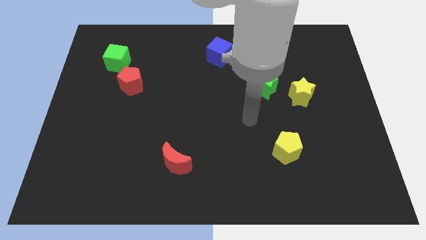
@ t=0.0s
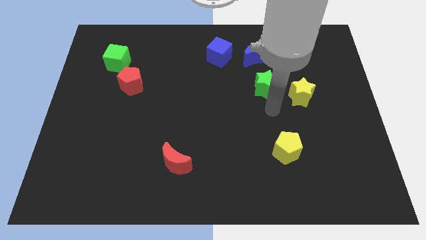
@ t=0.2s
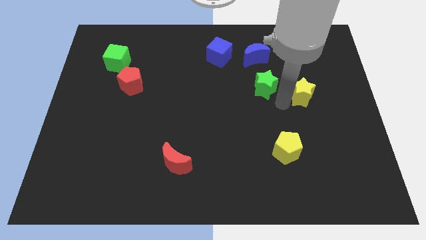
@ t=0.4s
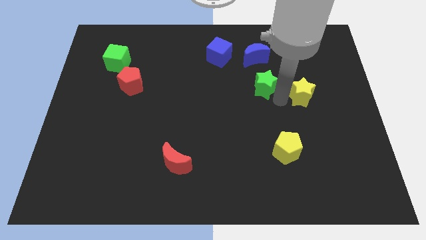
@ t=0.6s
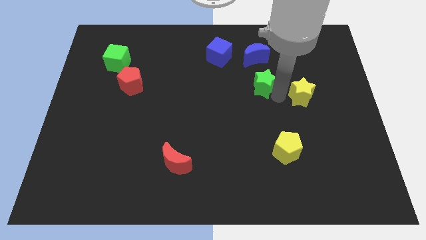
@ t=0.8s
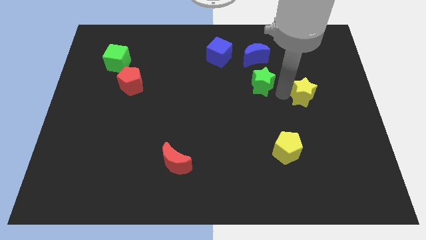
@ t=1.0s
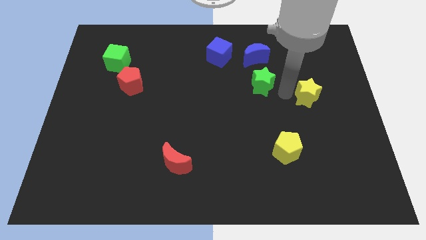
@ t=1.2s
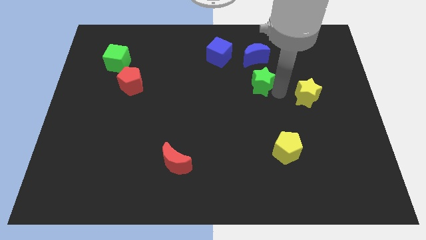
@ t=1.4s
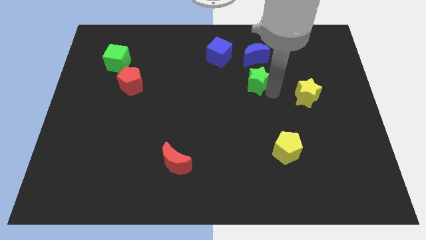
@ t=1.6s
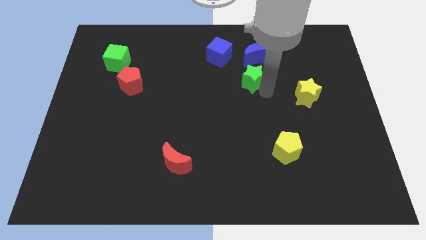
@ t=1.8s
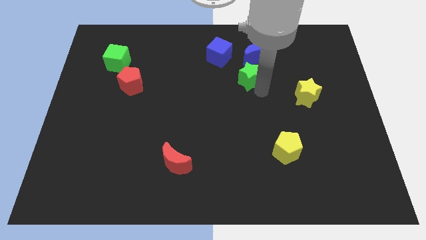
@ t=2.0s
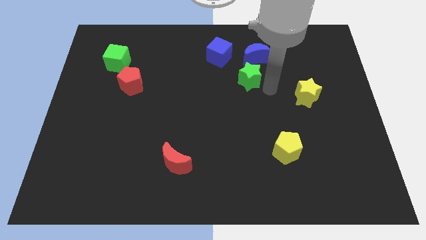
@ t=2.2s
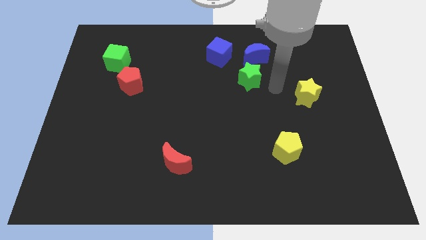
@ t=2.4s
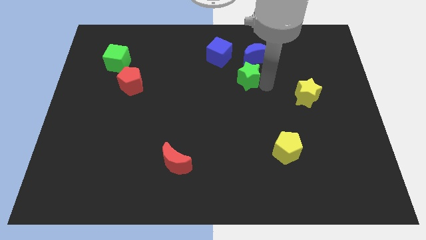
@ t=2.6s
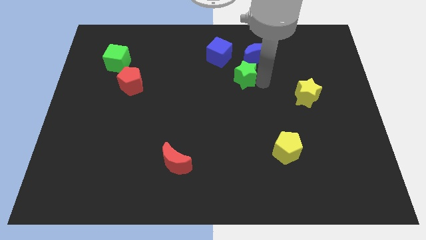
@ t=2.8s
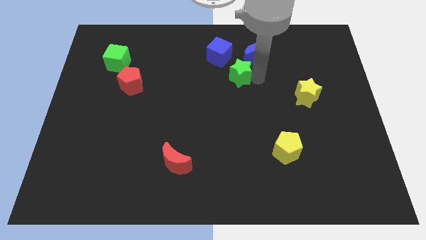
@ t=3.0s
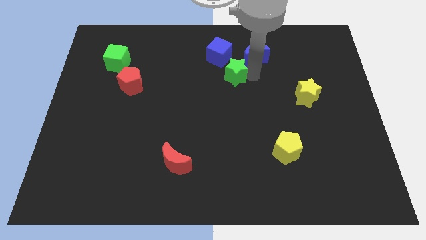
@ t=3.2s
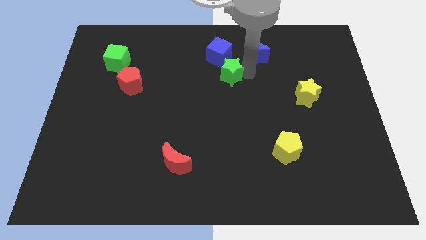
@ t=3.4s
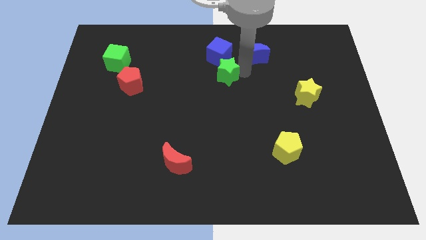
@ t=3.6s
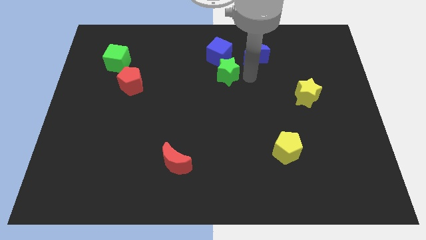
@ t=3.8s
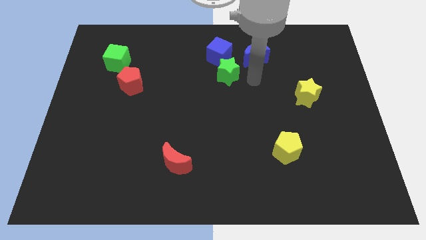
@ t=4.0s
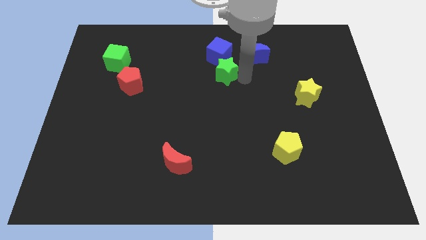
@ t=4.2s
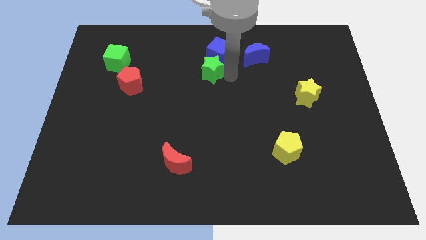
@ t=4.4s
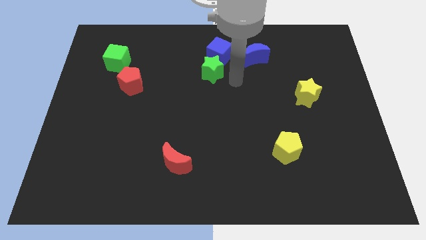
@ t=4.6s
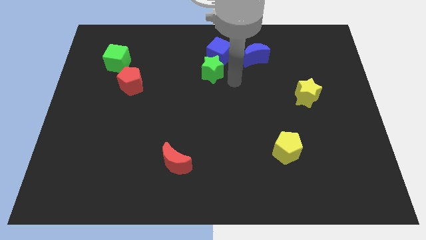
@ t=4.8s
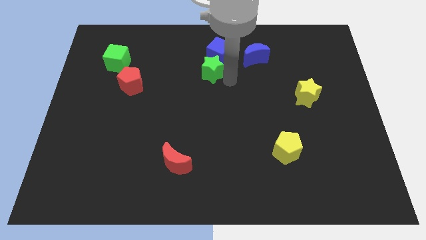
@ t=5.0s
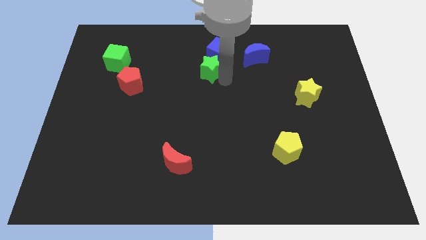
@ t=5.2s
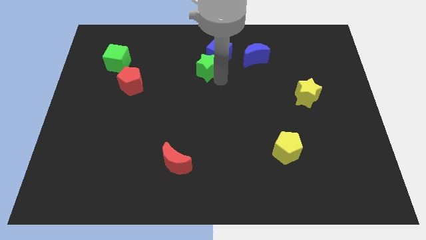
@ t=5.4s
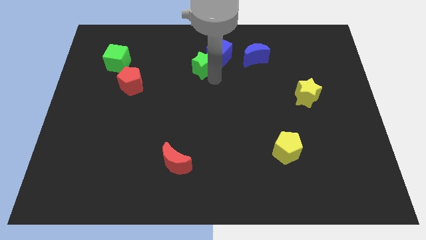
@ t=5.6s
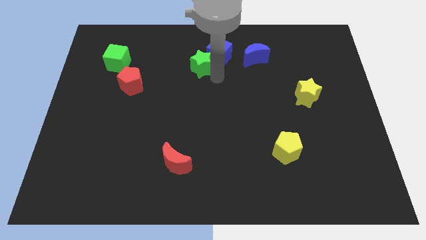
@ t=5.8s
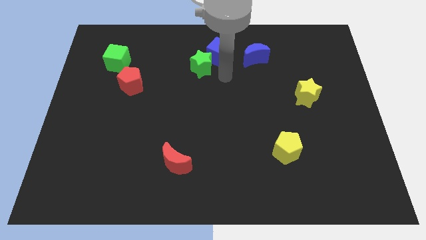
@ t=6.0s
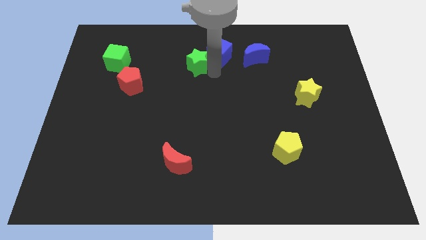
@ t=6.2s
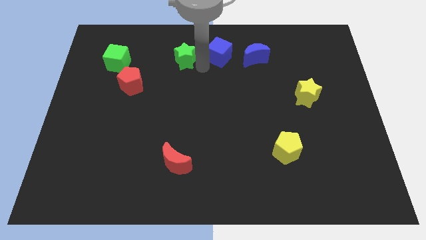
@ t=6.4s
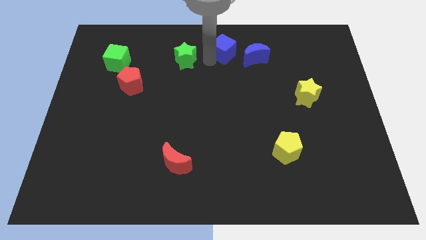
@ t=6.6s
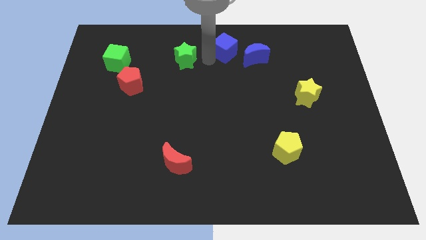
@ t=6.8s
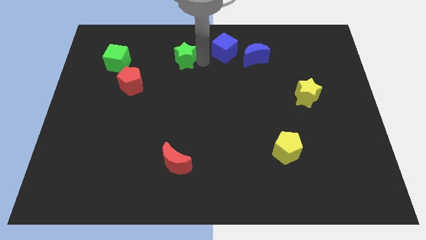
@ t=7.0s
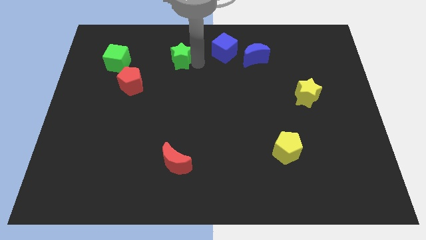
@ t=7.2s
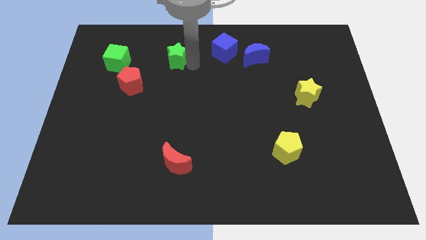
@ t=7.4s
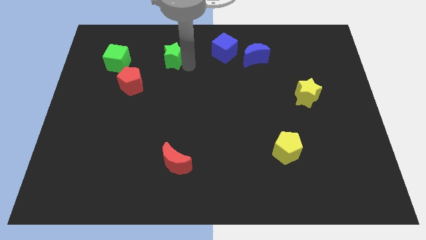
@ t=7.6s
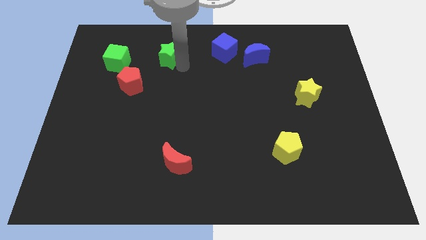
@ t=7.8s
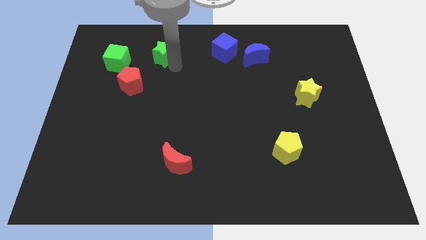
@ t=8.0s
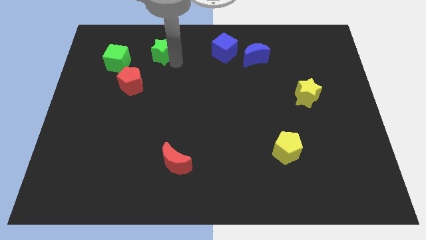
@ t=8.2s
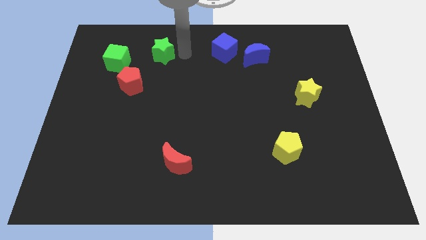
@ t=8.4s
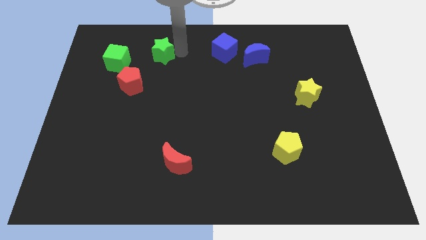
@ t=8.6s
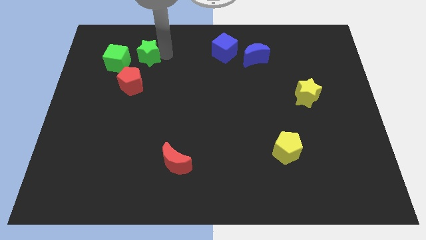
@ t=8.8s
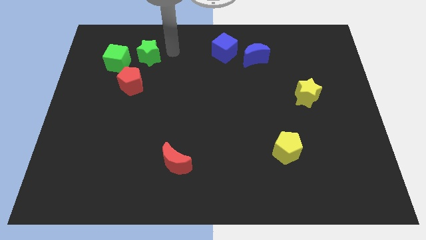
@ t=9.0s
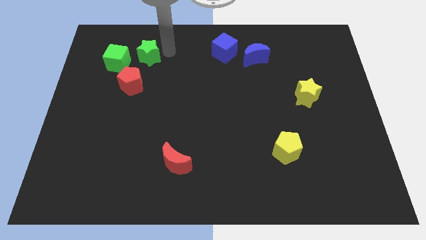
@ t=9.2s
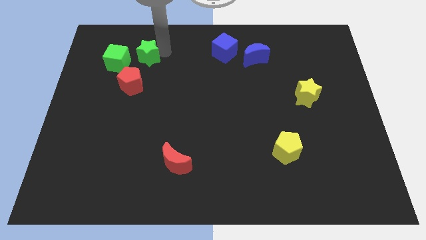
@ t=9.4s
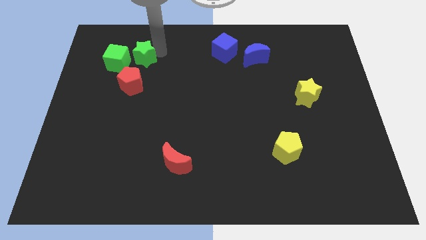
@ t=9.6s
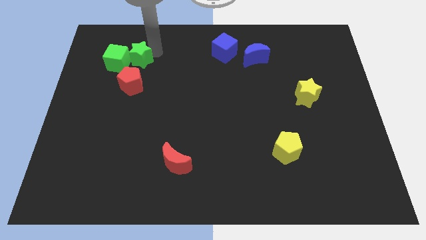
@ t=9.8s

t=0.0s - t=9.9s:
slide the green star to the green cube

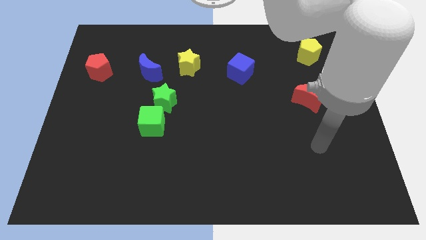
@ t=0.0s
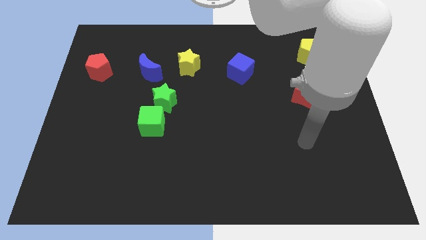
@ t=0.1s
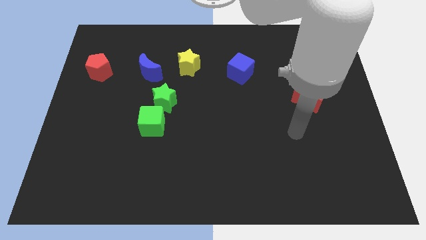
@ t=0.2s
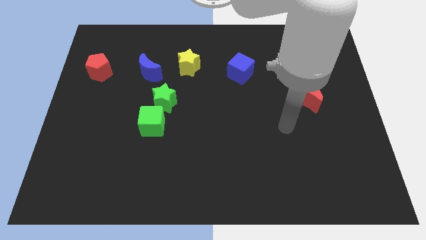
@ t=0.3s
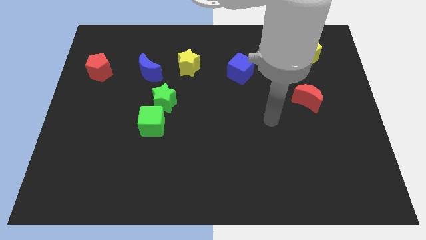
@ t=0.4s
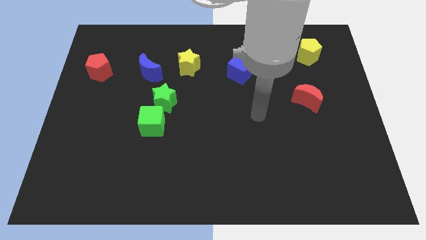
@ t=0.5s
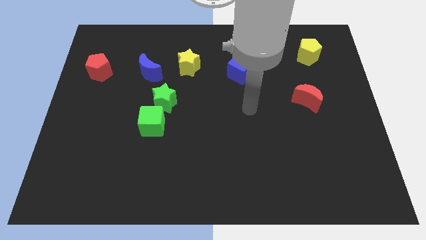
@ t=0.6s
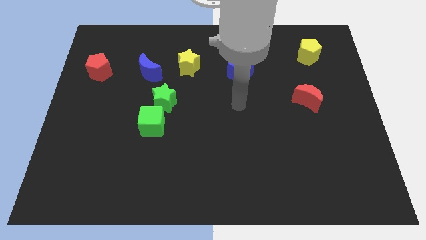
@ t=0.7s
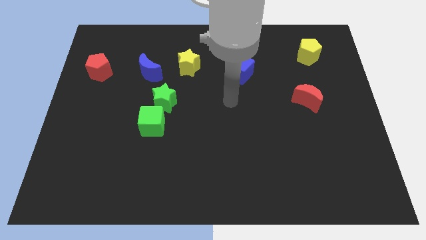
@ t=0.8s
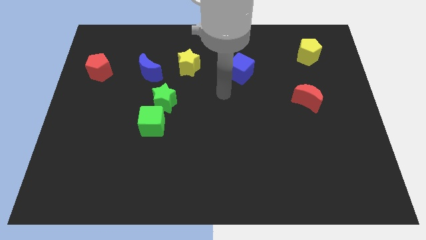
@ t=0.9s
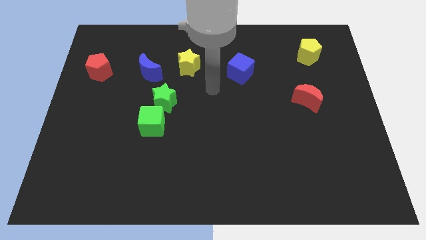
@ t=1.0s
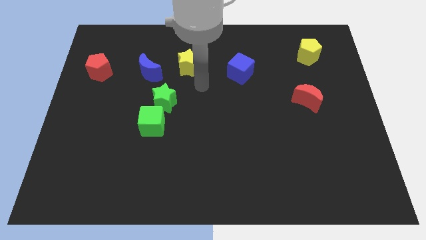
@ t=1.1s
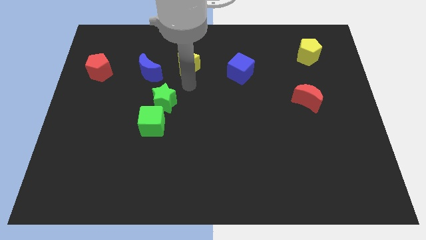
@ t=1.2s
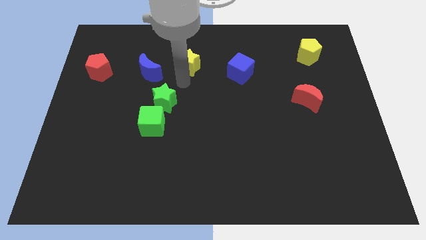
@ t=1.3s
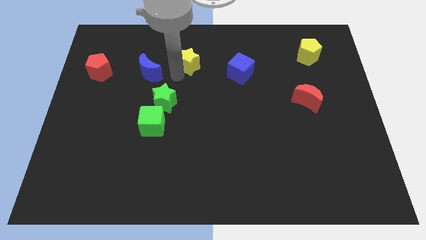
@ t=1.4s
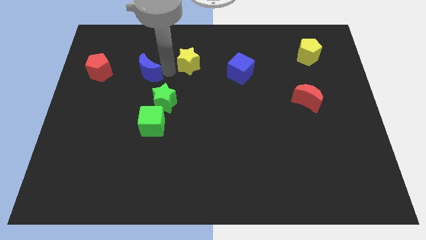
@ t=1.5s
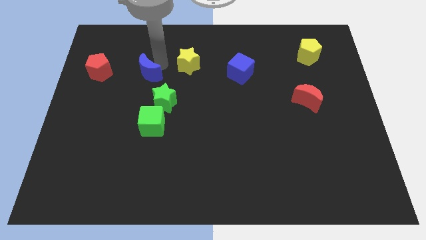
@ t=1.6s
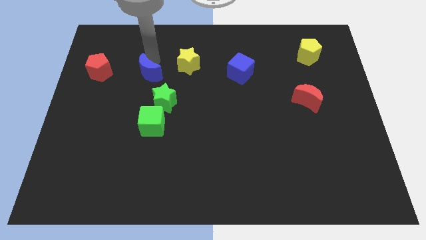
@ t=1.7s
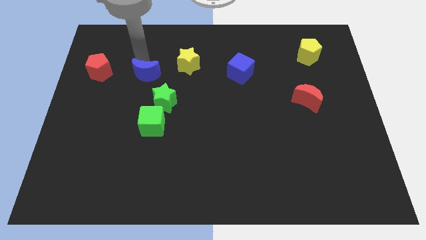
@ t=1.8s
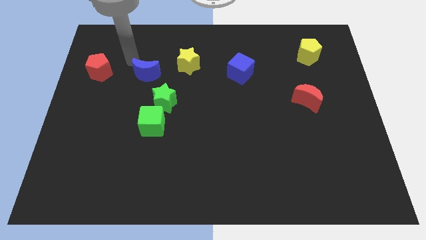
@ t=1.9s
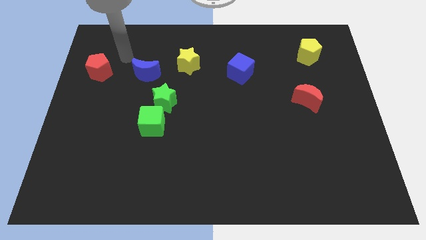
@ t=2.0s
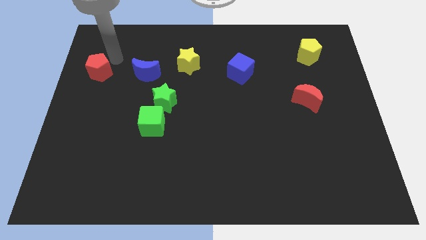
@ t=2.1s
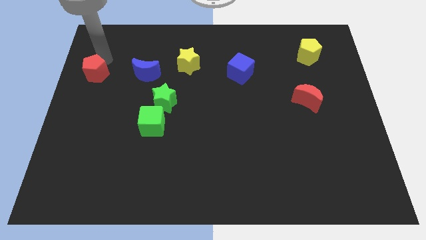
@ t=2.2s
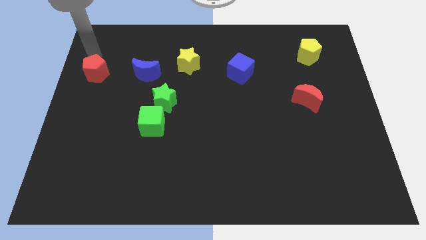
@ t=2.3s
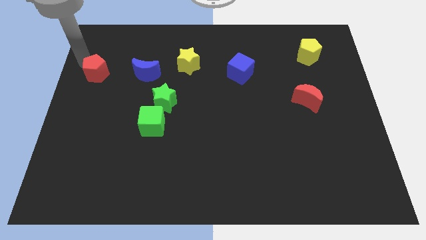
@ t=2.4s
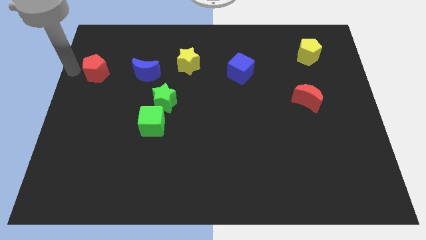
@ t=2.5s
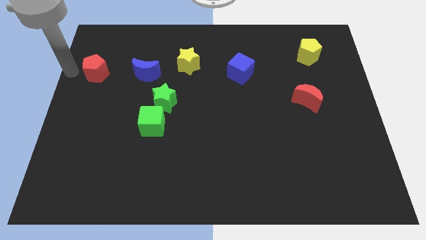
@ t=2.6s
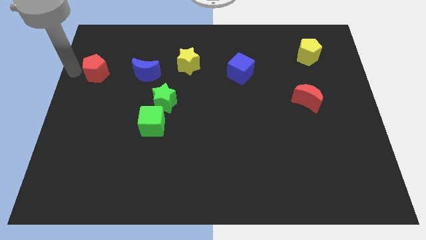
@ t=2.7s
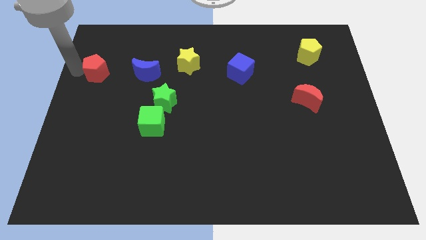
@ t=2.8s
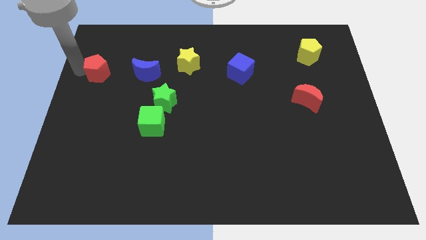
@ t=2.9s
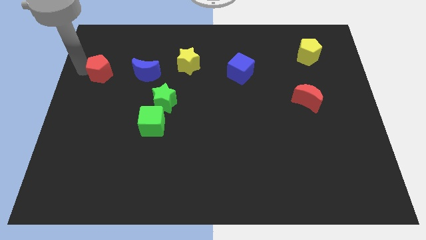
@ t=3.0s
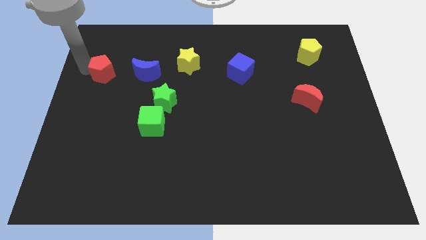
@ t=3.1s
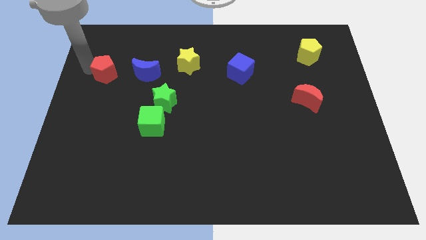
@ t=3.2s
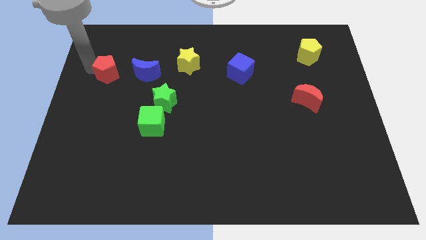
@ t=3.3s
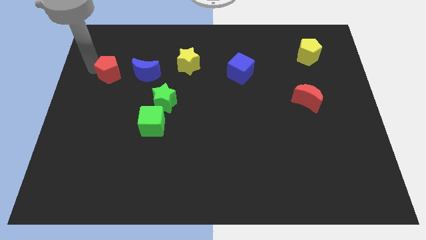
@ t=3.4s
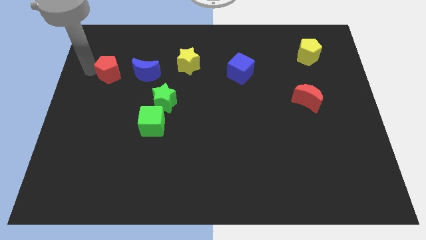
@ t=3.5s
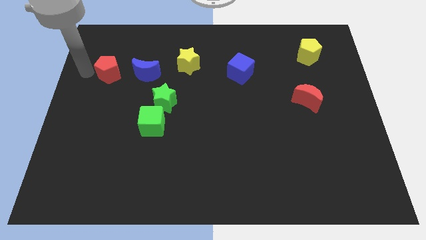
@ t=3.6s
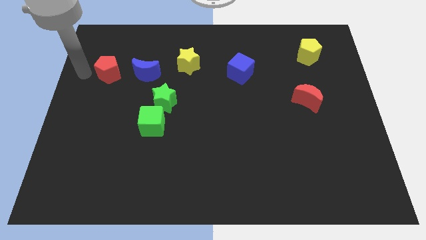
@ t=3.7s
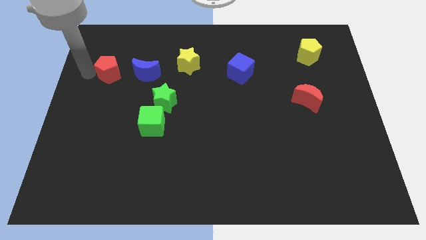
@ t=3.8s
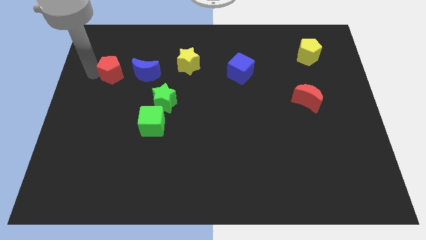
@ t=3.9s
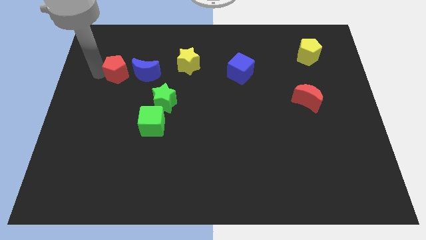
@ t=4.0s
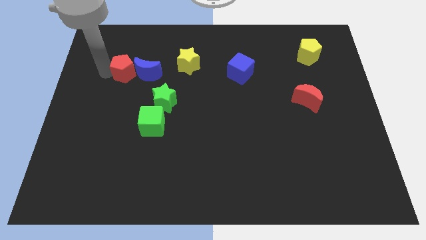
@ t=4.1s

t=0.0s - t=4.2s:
slide the red pentagon to the blue moon
